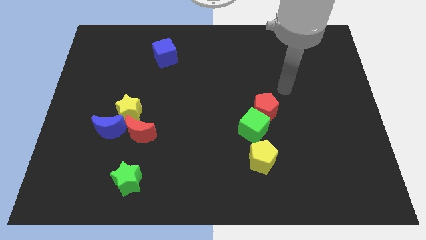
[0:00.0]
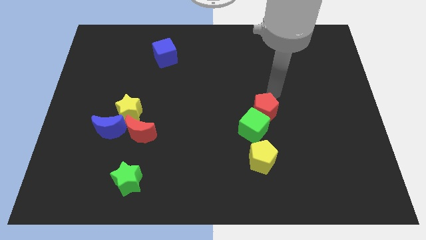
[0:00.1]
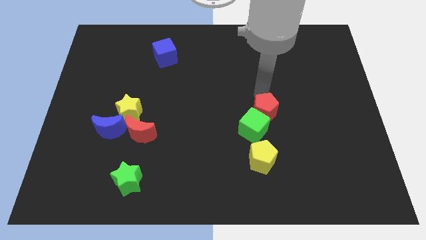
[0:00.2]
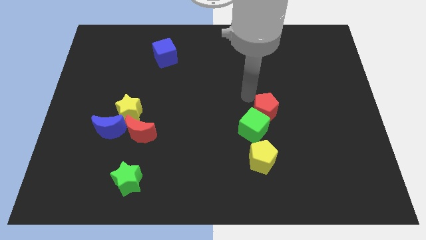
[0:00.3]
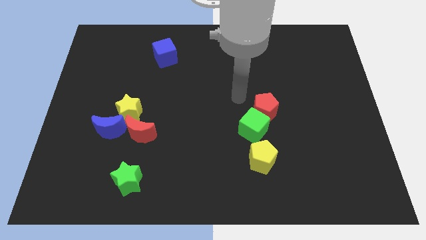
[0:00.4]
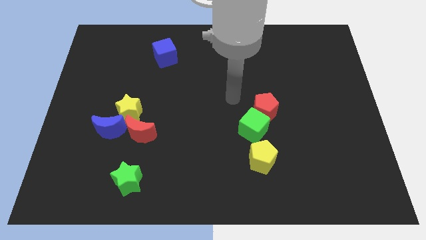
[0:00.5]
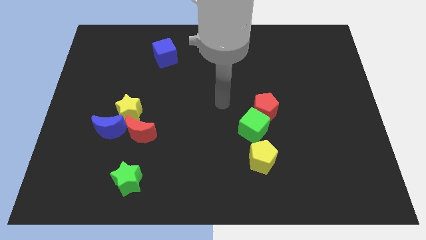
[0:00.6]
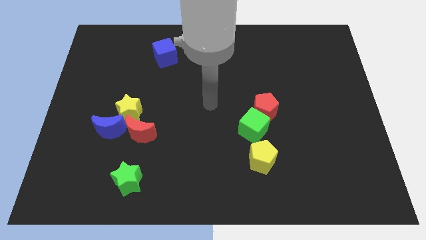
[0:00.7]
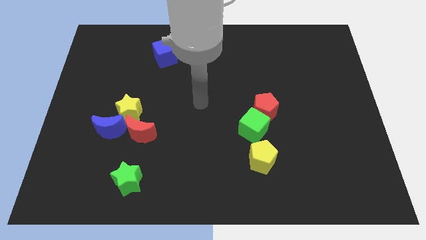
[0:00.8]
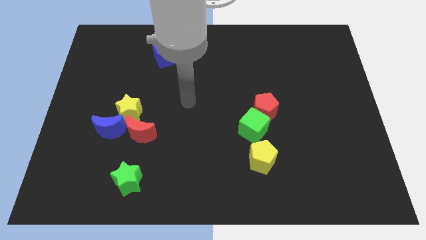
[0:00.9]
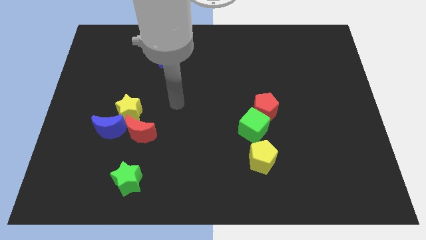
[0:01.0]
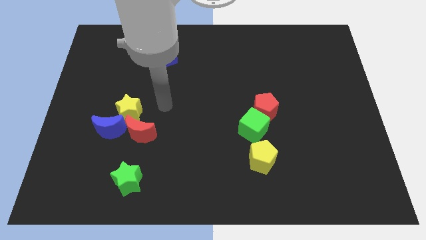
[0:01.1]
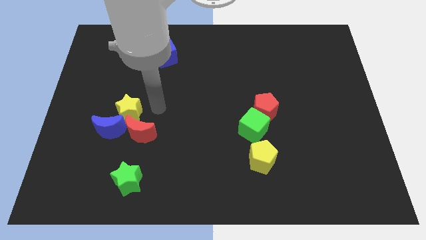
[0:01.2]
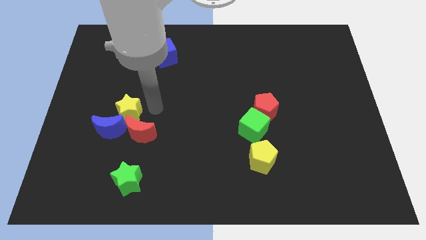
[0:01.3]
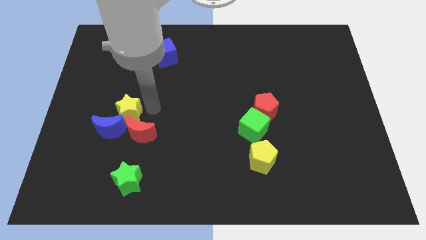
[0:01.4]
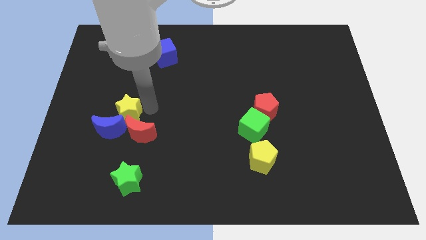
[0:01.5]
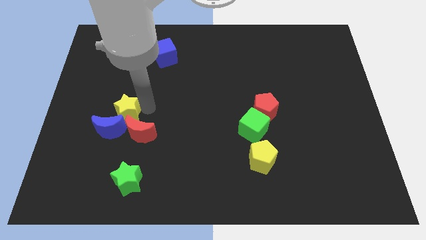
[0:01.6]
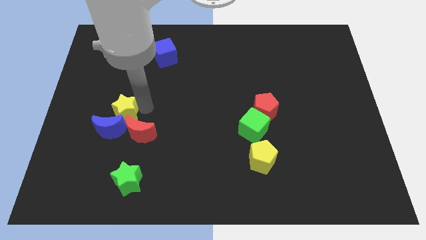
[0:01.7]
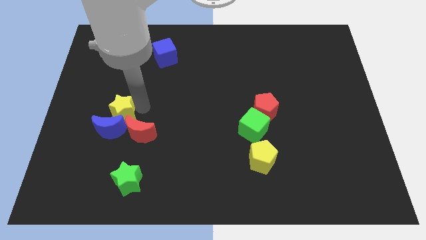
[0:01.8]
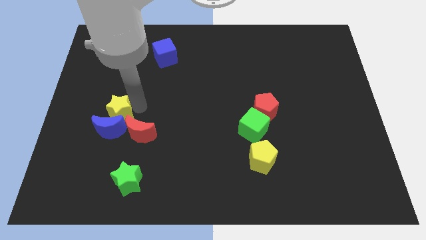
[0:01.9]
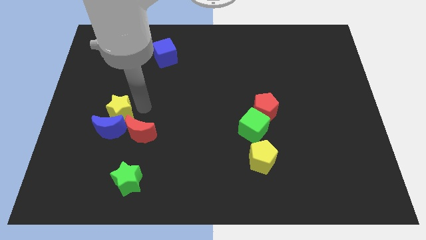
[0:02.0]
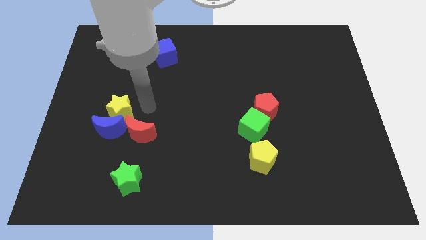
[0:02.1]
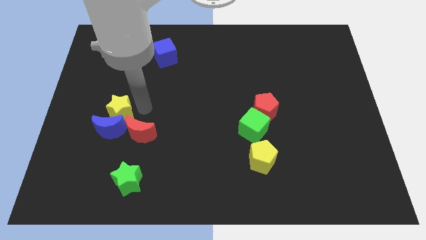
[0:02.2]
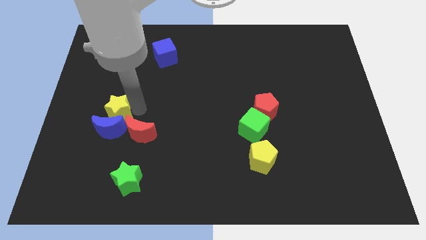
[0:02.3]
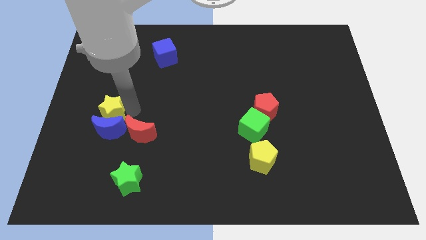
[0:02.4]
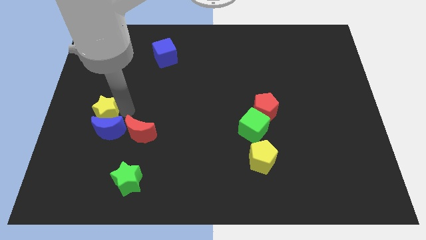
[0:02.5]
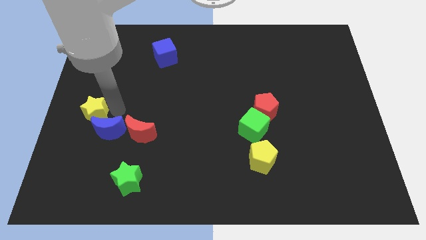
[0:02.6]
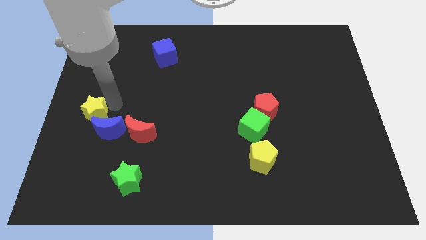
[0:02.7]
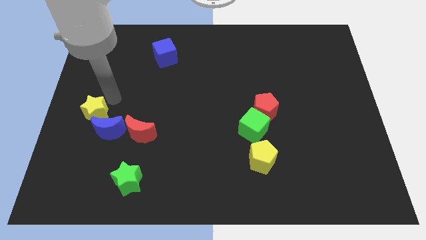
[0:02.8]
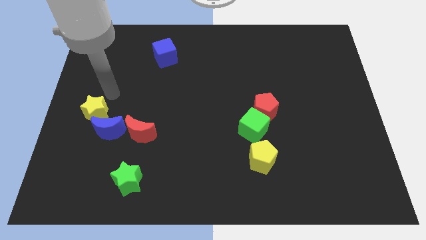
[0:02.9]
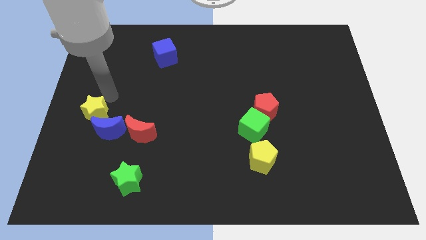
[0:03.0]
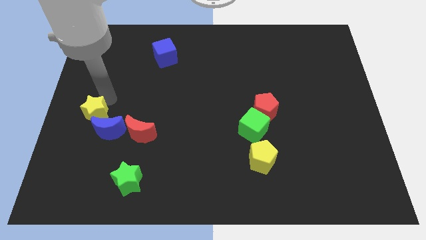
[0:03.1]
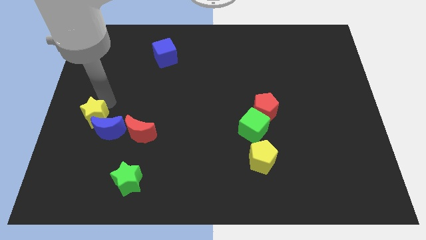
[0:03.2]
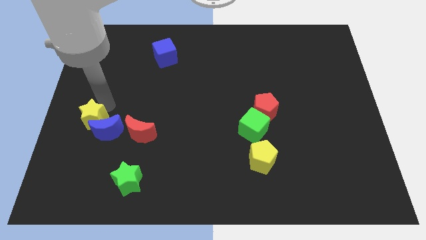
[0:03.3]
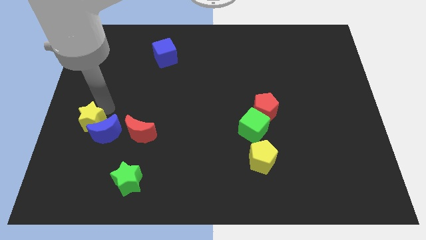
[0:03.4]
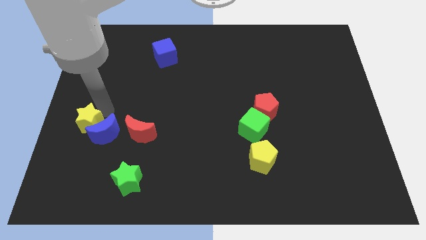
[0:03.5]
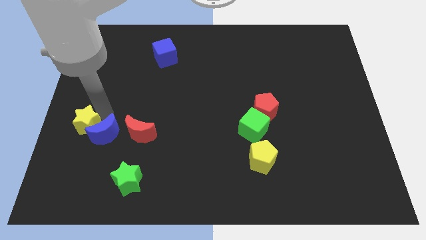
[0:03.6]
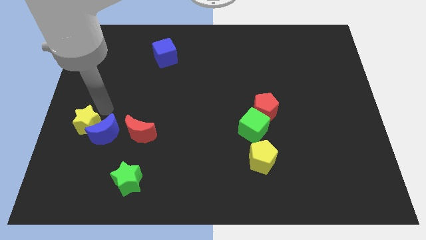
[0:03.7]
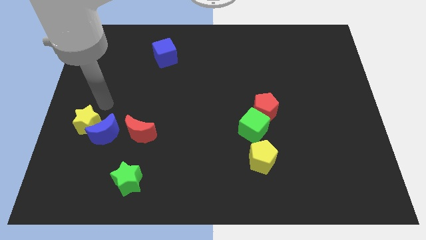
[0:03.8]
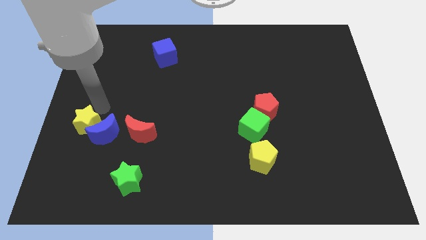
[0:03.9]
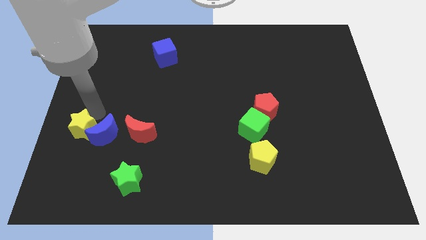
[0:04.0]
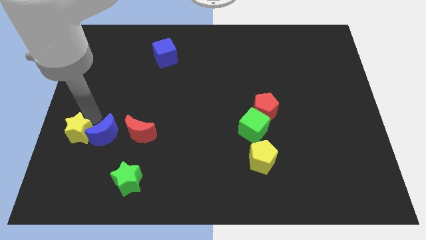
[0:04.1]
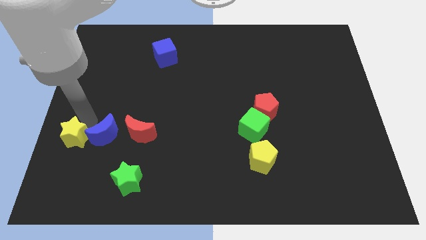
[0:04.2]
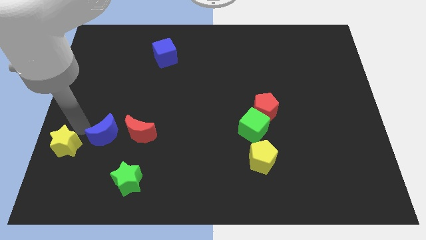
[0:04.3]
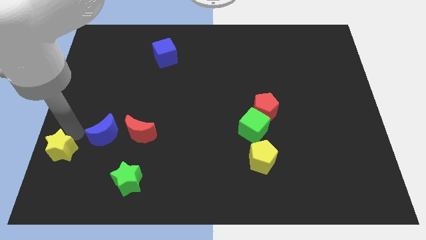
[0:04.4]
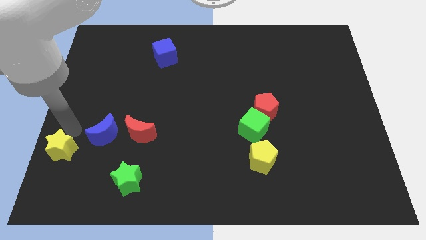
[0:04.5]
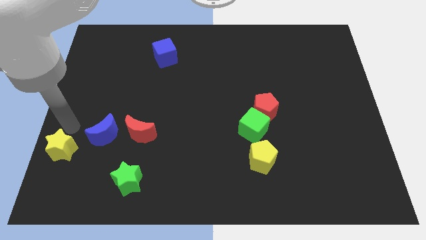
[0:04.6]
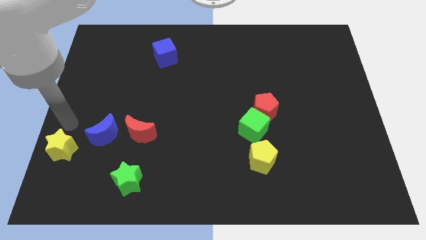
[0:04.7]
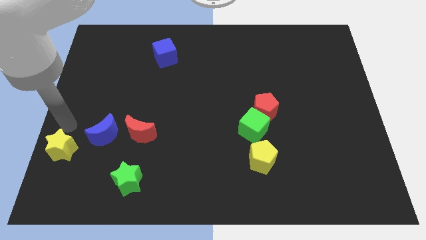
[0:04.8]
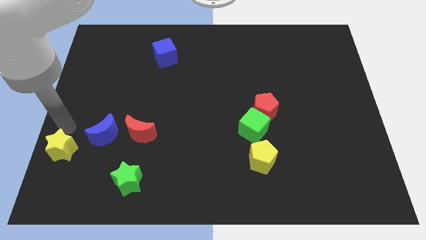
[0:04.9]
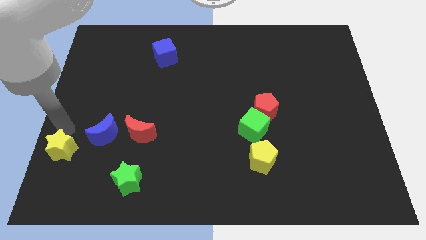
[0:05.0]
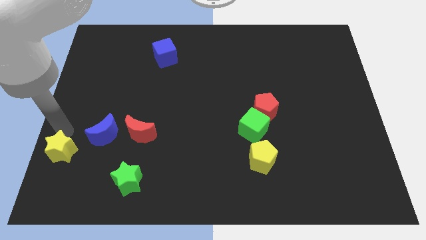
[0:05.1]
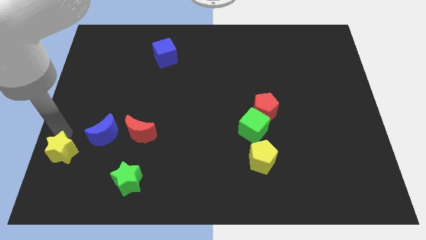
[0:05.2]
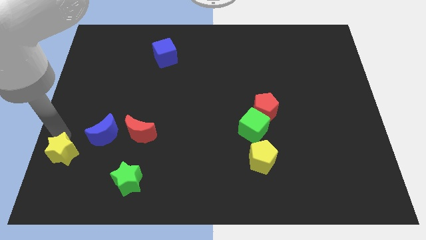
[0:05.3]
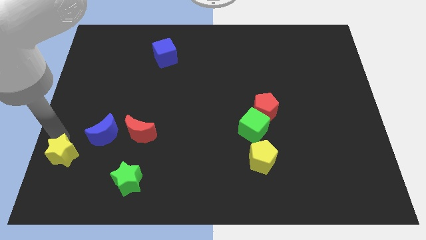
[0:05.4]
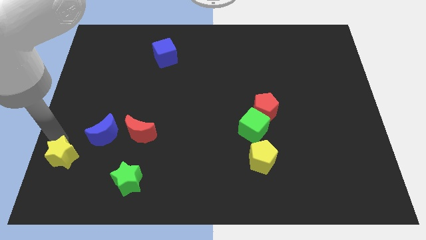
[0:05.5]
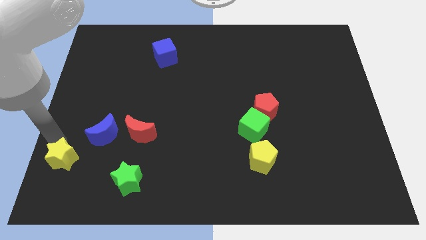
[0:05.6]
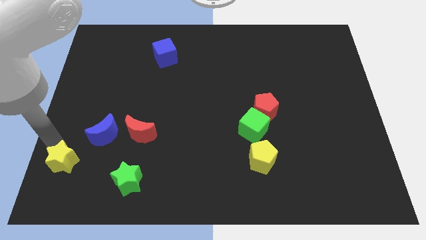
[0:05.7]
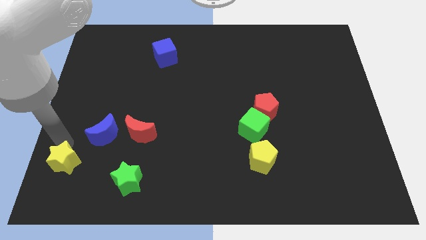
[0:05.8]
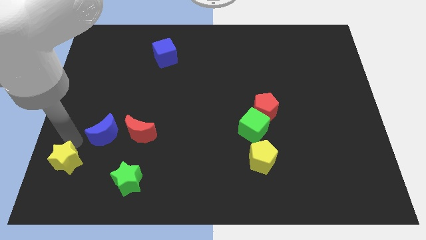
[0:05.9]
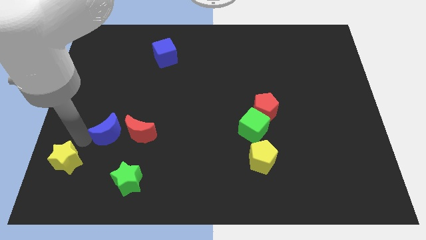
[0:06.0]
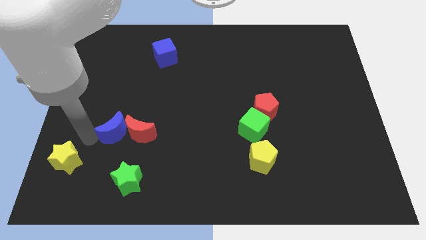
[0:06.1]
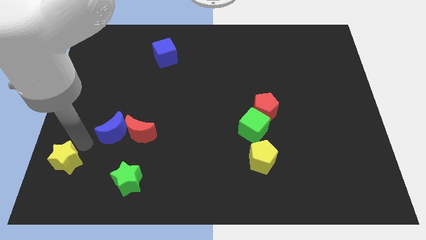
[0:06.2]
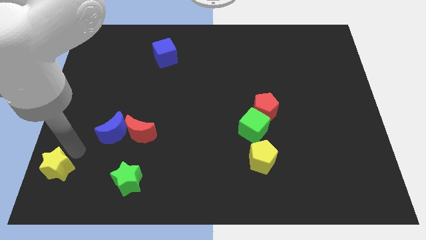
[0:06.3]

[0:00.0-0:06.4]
slide the yellow star to the lower left corner

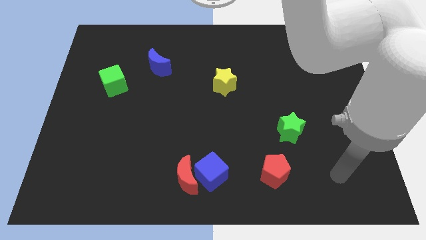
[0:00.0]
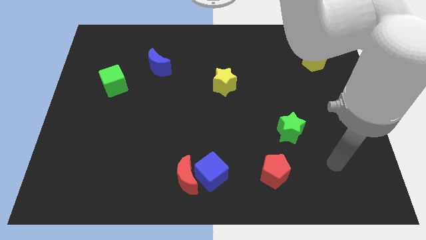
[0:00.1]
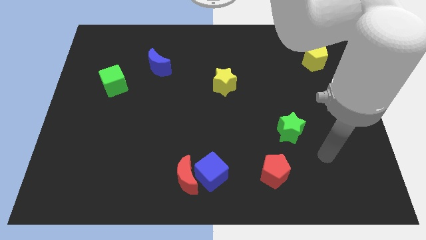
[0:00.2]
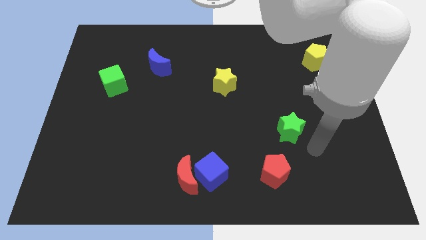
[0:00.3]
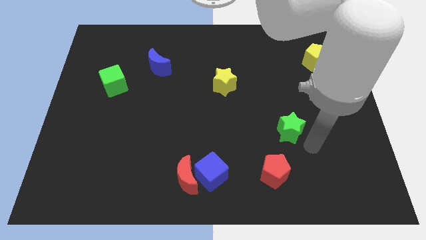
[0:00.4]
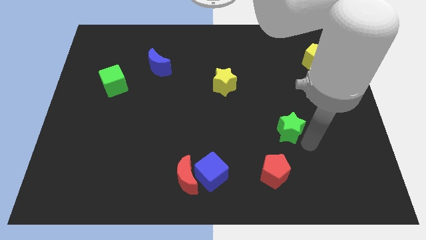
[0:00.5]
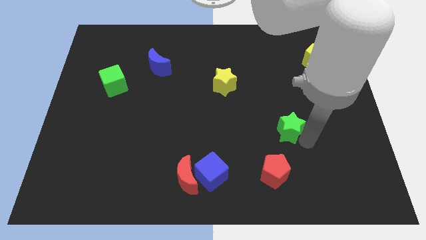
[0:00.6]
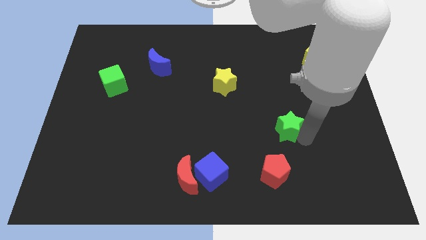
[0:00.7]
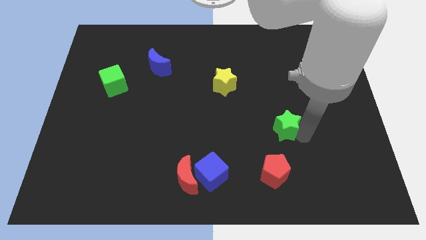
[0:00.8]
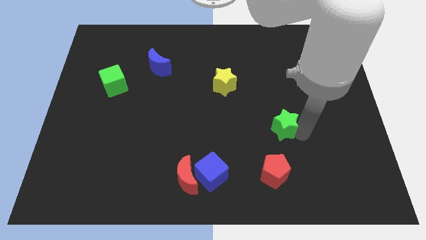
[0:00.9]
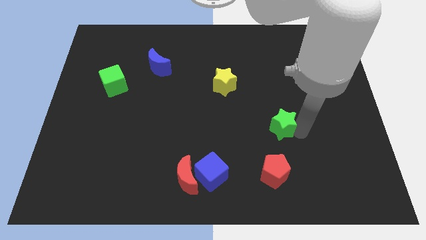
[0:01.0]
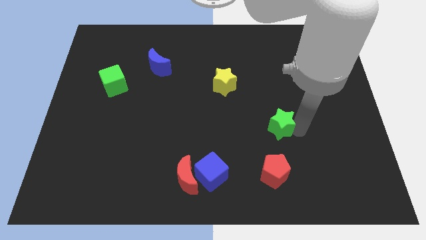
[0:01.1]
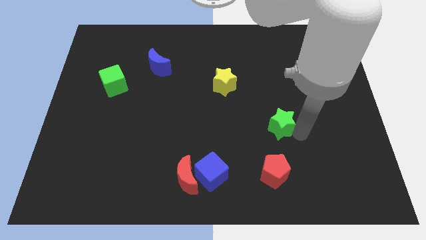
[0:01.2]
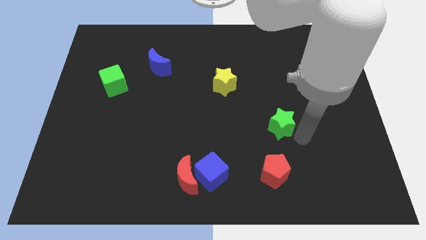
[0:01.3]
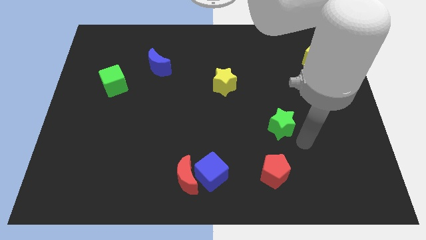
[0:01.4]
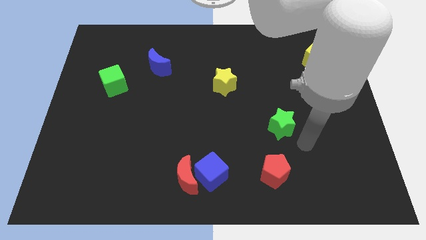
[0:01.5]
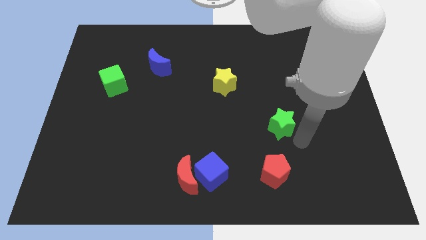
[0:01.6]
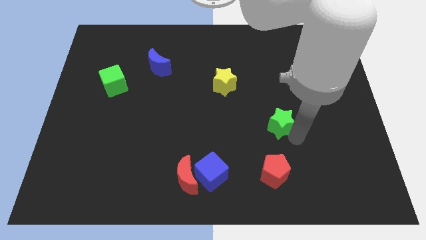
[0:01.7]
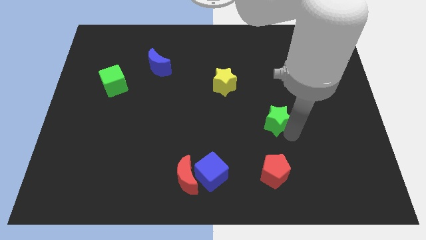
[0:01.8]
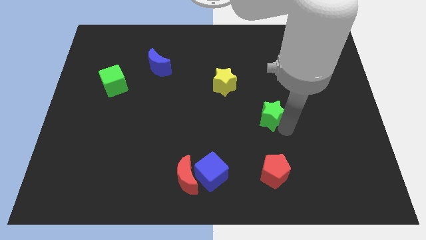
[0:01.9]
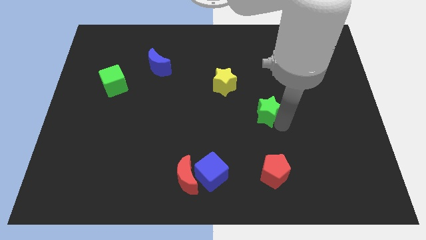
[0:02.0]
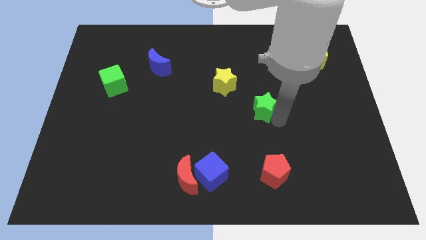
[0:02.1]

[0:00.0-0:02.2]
move the green star to the center
